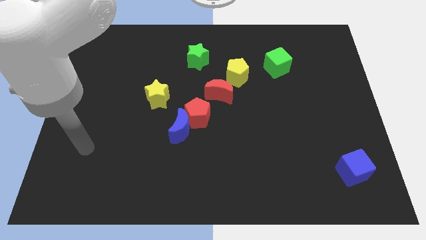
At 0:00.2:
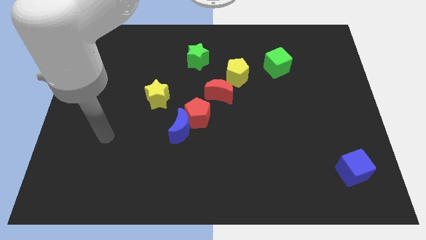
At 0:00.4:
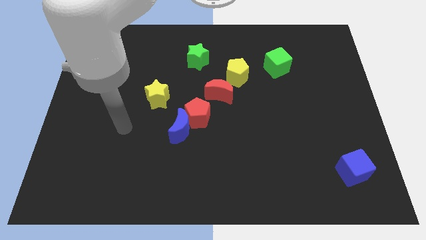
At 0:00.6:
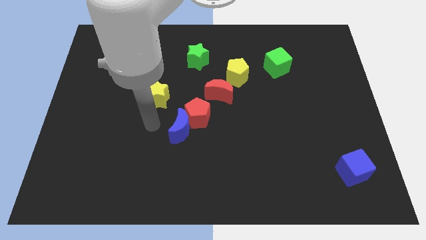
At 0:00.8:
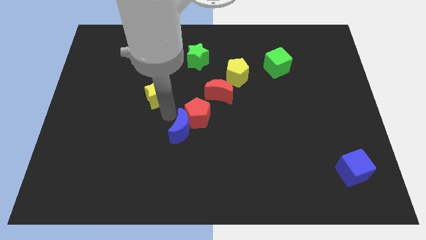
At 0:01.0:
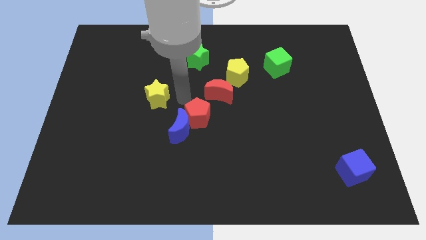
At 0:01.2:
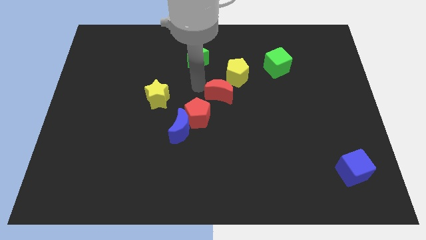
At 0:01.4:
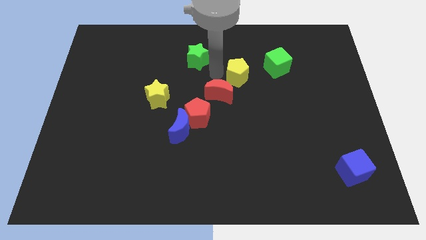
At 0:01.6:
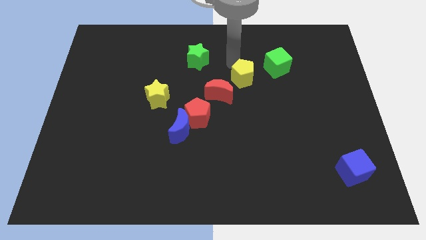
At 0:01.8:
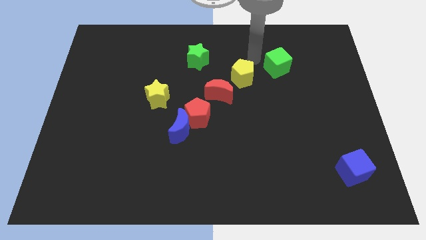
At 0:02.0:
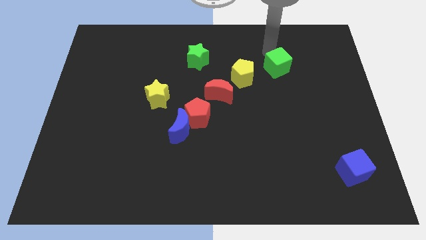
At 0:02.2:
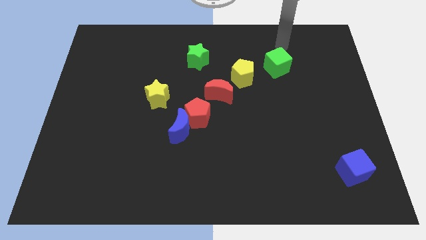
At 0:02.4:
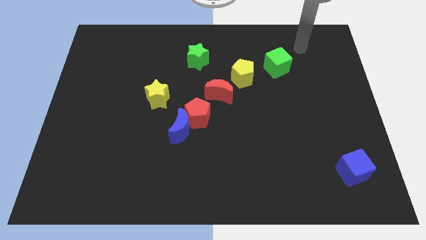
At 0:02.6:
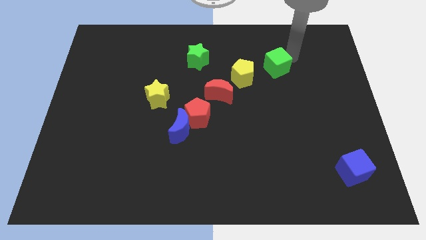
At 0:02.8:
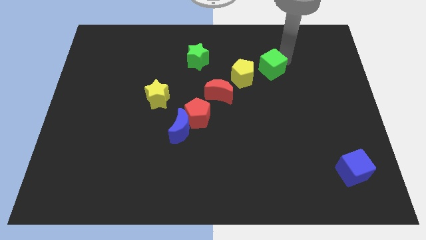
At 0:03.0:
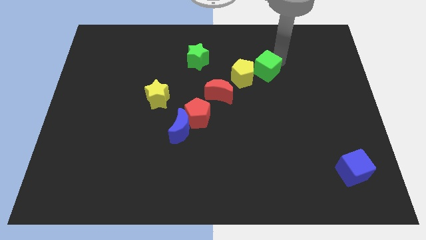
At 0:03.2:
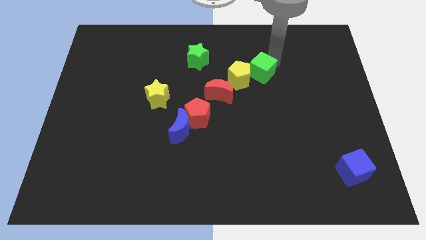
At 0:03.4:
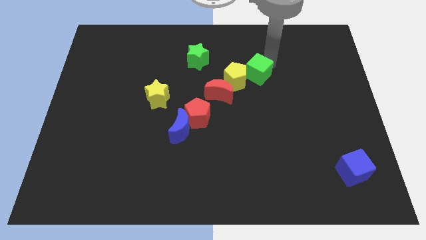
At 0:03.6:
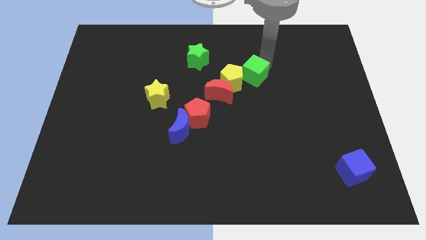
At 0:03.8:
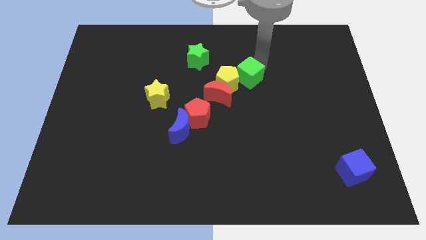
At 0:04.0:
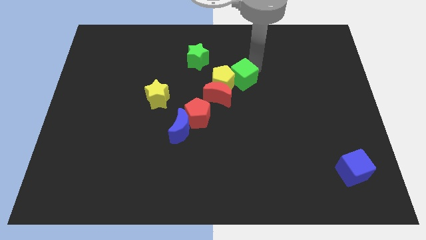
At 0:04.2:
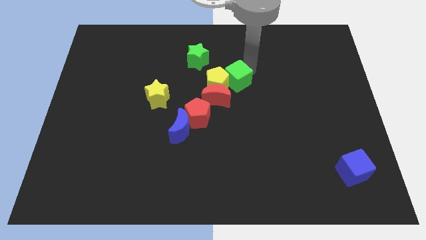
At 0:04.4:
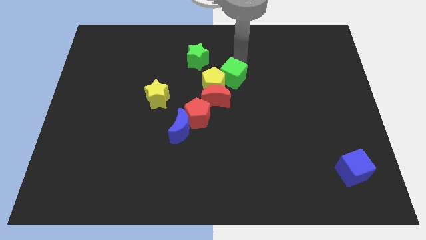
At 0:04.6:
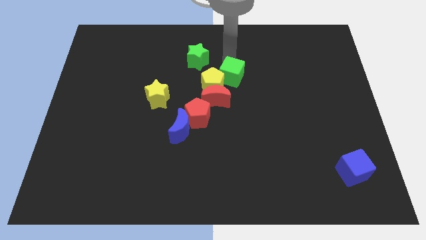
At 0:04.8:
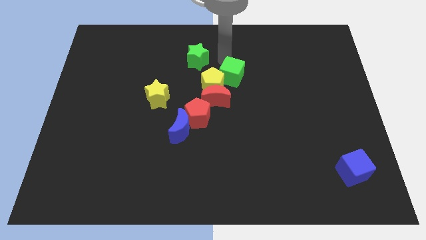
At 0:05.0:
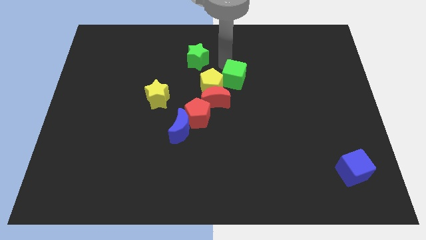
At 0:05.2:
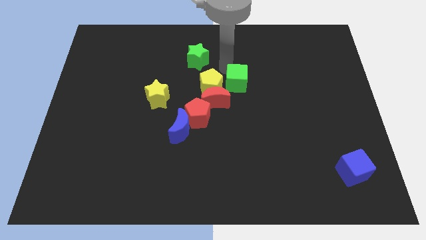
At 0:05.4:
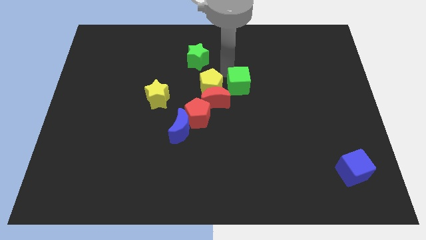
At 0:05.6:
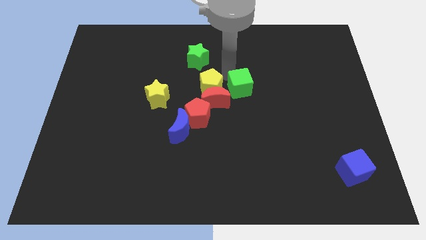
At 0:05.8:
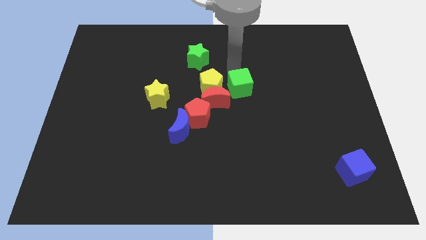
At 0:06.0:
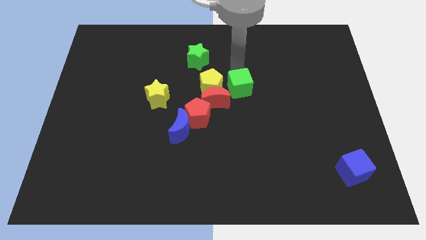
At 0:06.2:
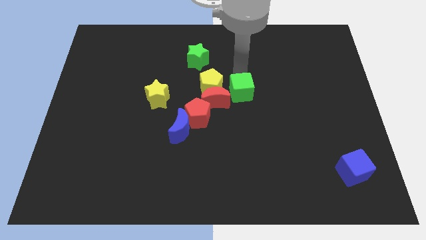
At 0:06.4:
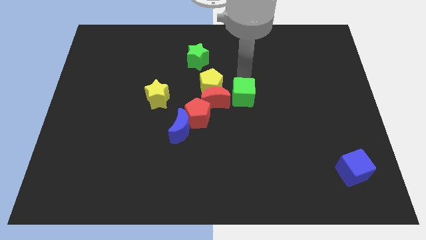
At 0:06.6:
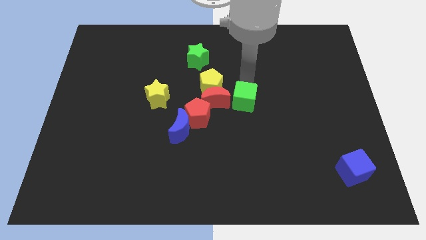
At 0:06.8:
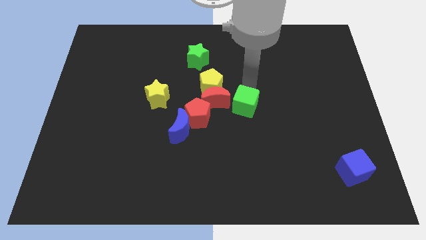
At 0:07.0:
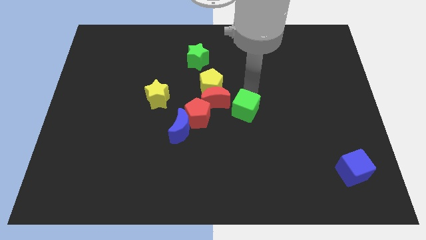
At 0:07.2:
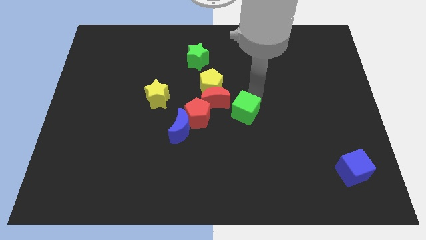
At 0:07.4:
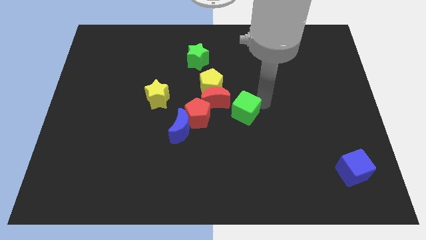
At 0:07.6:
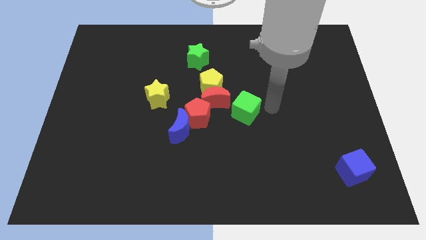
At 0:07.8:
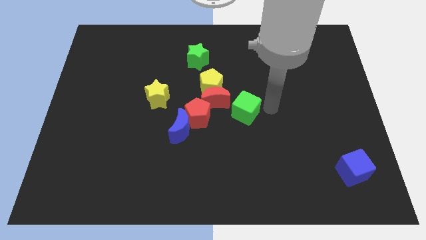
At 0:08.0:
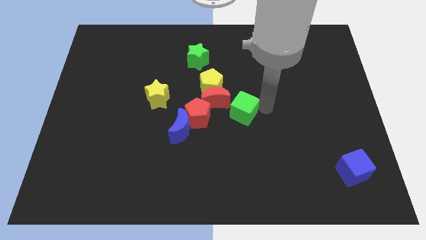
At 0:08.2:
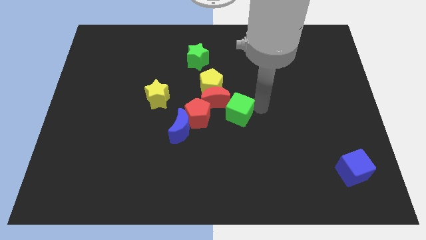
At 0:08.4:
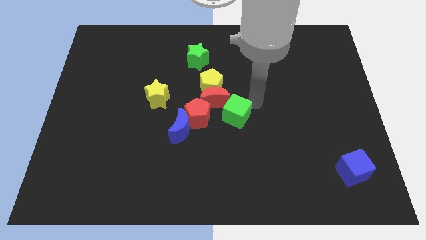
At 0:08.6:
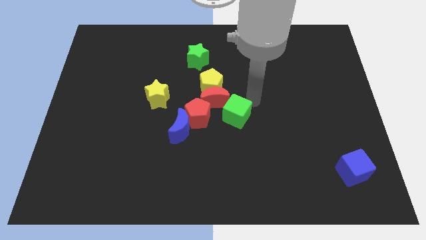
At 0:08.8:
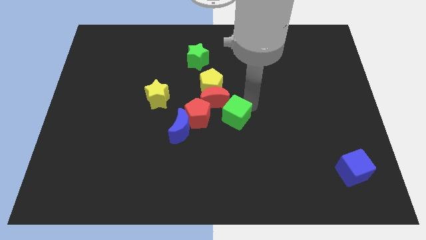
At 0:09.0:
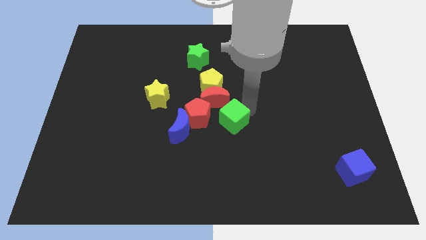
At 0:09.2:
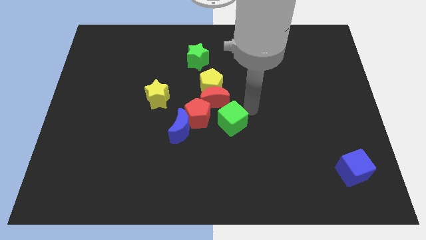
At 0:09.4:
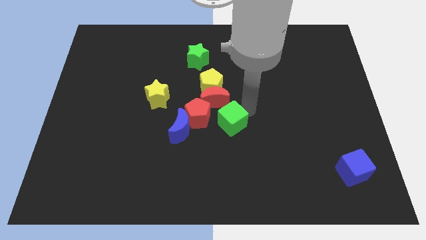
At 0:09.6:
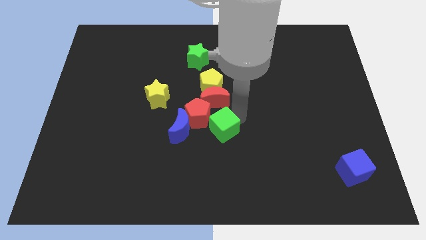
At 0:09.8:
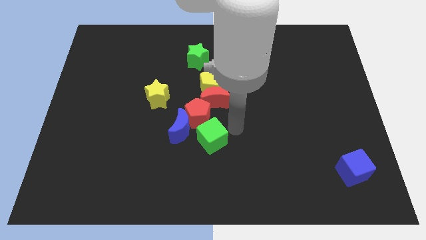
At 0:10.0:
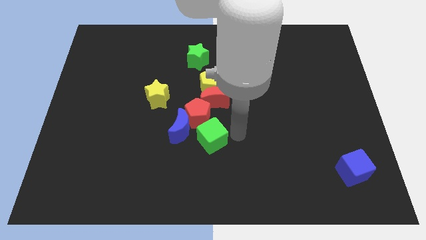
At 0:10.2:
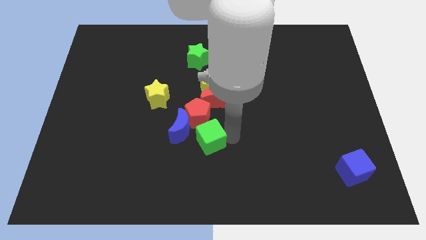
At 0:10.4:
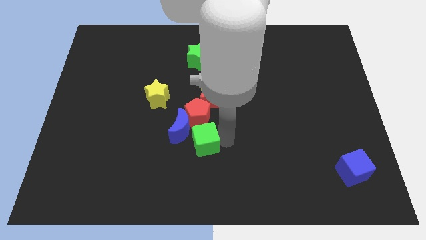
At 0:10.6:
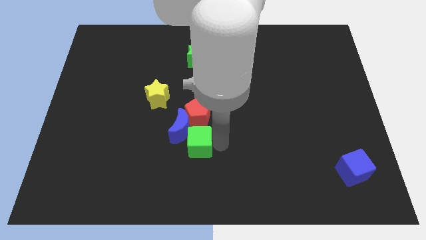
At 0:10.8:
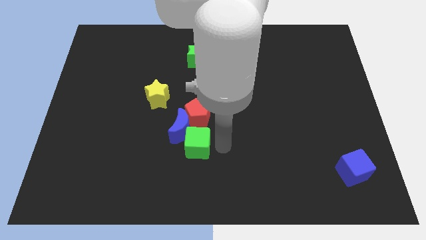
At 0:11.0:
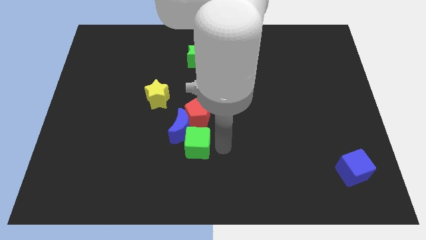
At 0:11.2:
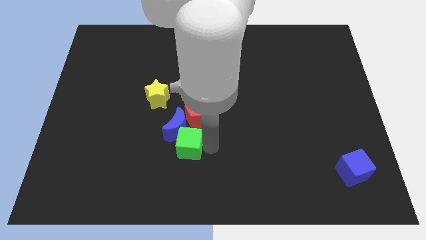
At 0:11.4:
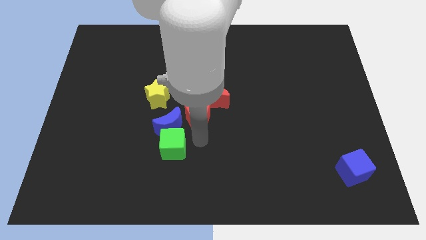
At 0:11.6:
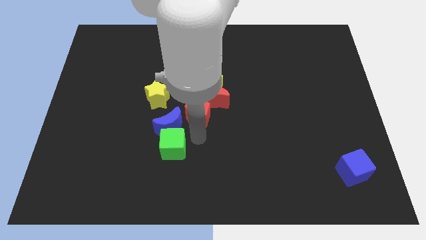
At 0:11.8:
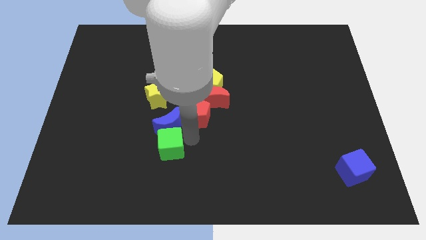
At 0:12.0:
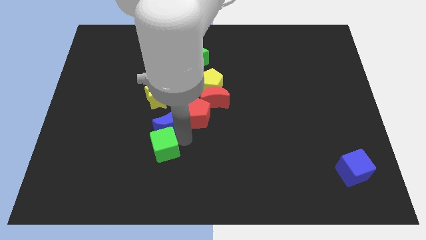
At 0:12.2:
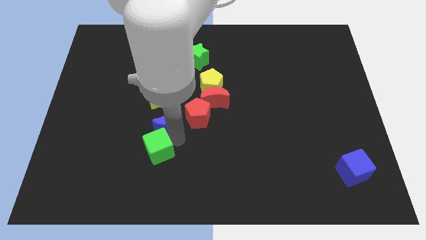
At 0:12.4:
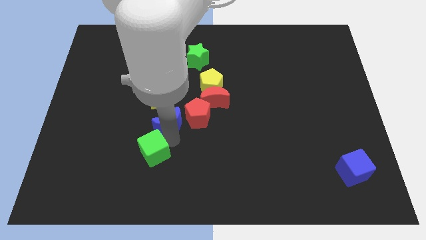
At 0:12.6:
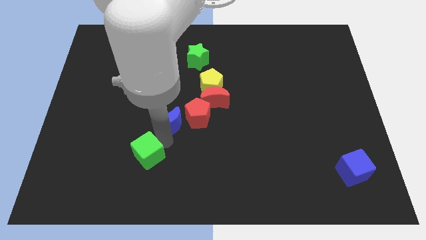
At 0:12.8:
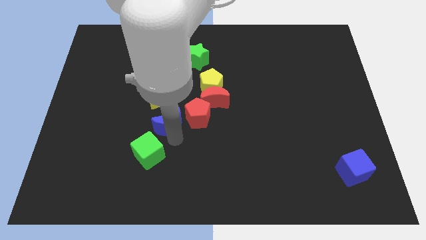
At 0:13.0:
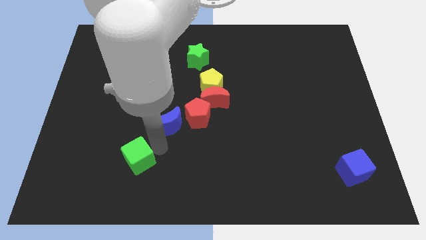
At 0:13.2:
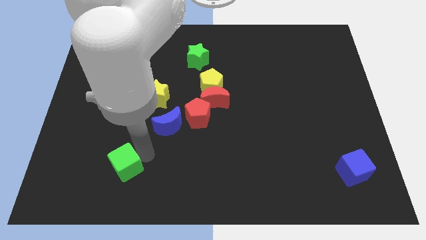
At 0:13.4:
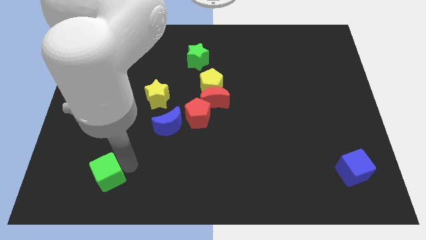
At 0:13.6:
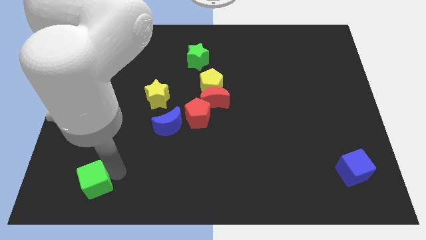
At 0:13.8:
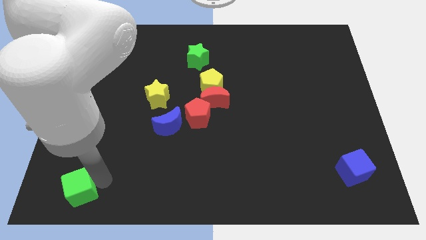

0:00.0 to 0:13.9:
slide the green cube to the bottom left corner
